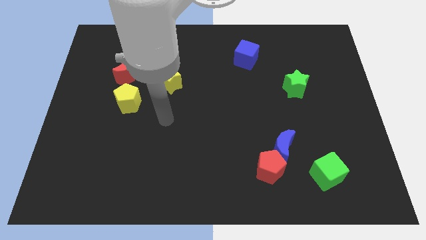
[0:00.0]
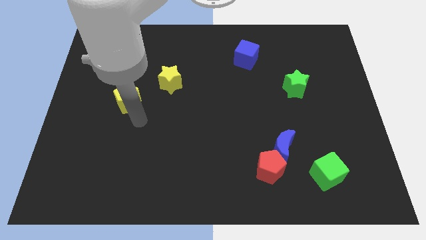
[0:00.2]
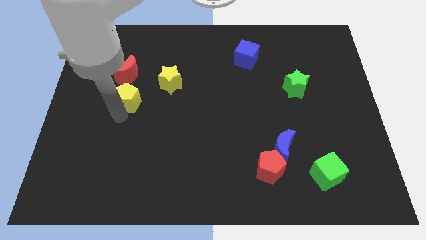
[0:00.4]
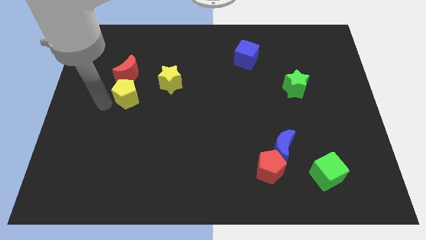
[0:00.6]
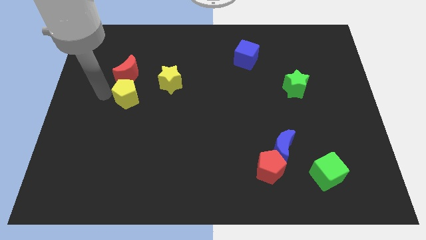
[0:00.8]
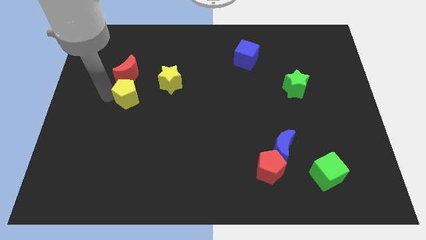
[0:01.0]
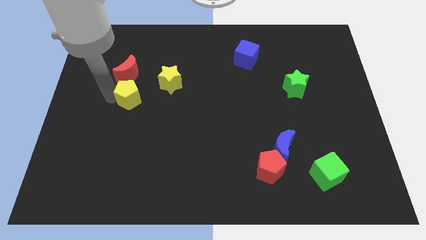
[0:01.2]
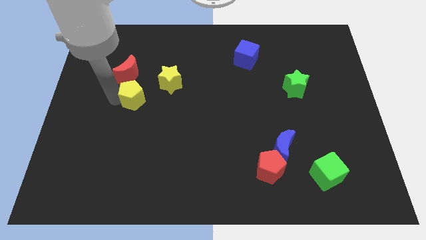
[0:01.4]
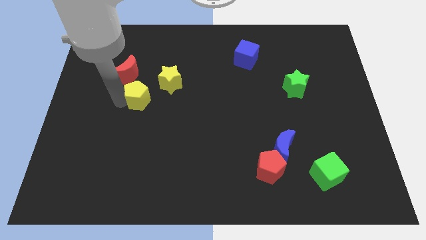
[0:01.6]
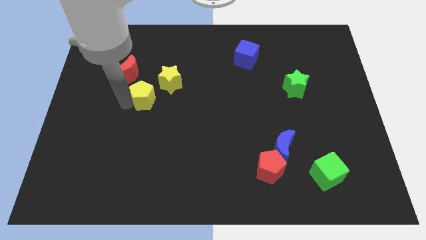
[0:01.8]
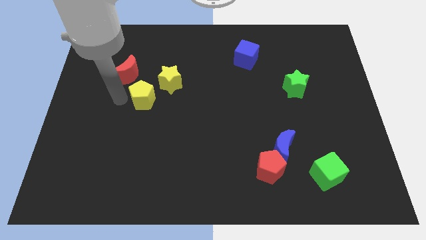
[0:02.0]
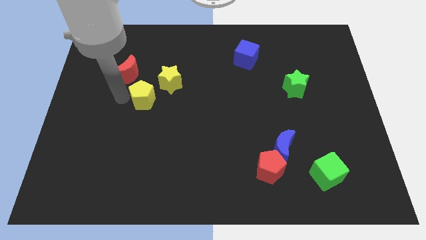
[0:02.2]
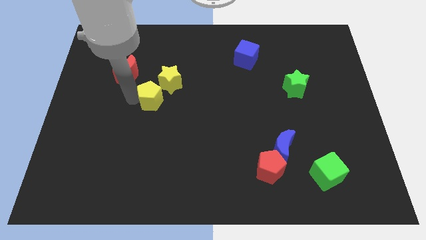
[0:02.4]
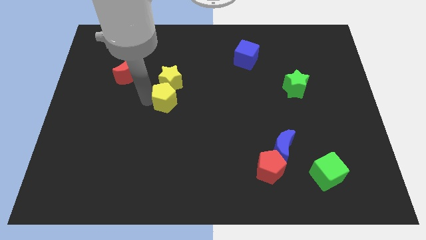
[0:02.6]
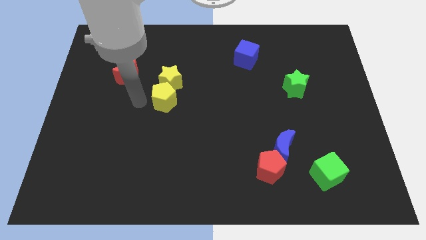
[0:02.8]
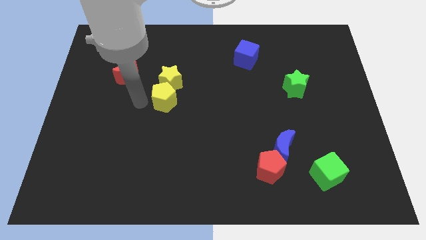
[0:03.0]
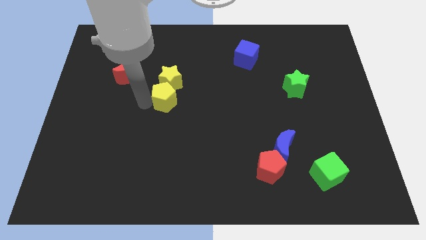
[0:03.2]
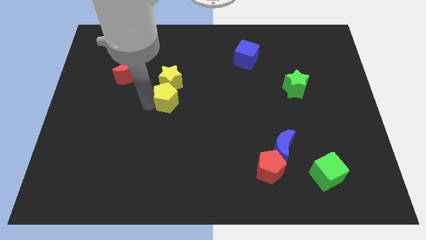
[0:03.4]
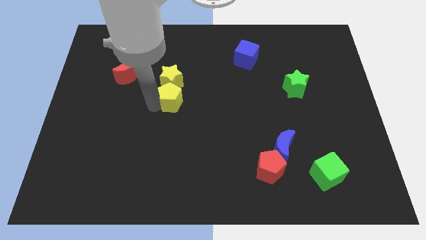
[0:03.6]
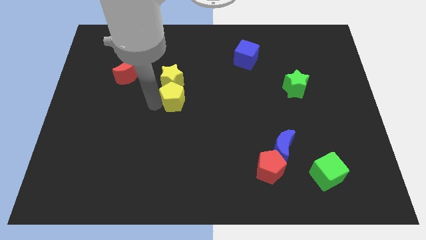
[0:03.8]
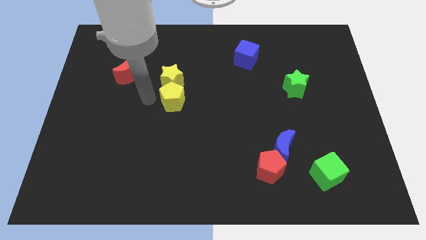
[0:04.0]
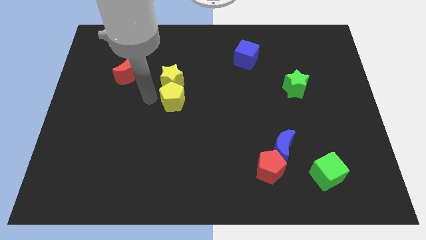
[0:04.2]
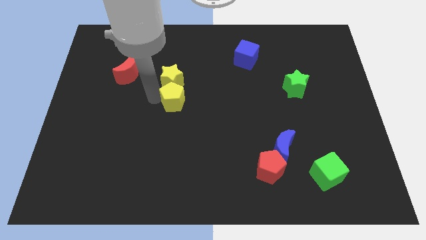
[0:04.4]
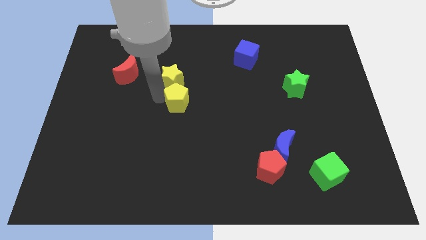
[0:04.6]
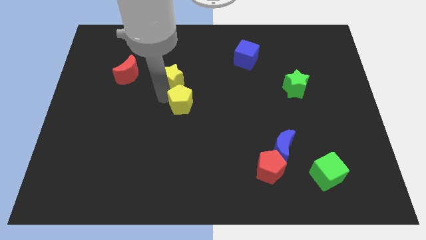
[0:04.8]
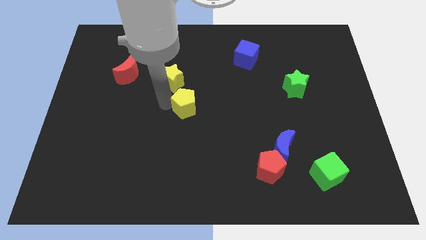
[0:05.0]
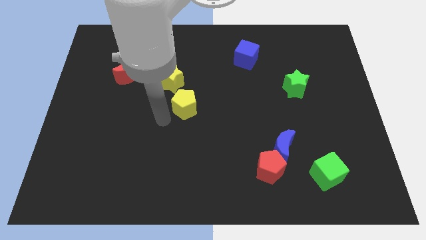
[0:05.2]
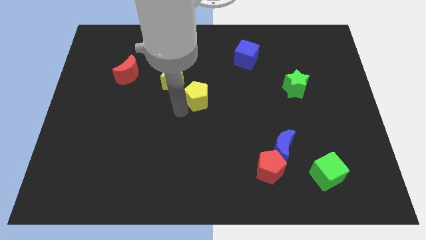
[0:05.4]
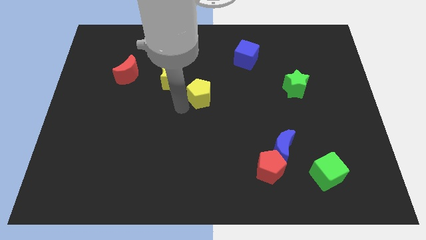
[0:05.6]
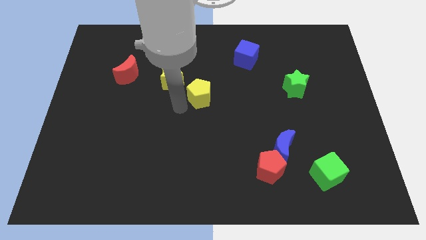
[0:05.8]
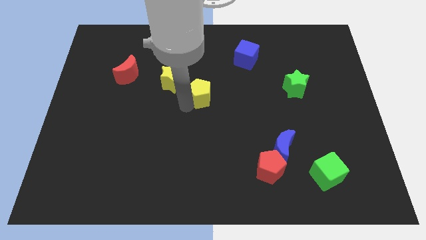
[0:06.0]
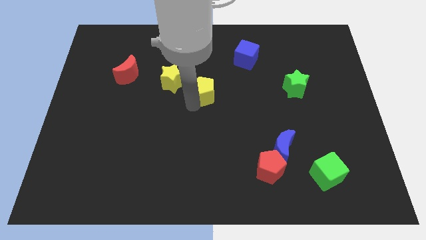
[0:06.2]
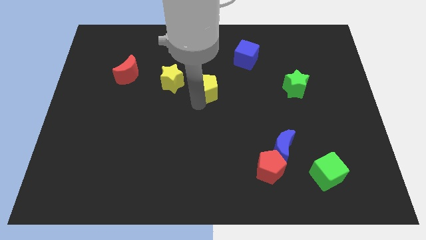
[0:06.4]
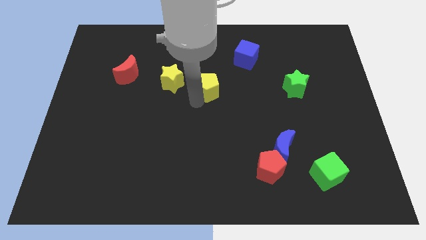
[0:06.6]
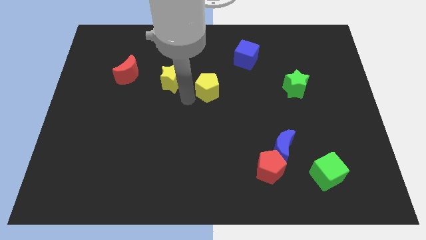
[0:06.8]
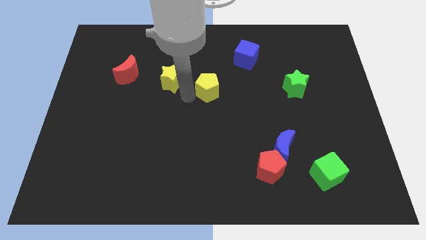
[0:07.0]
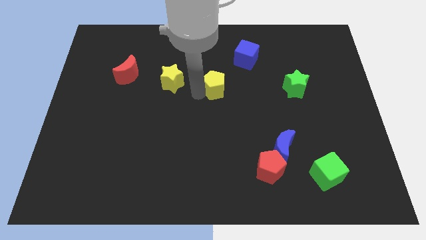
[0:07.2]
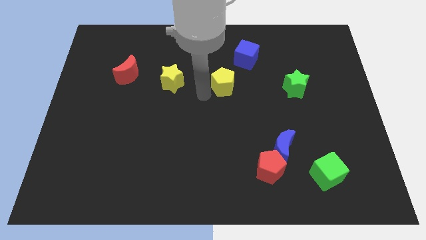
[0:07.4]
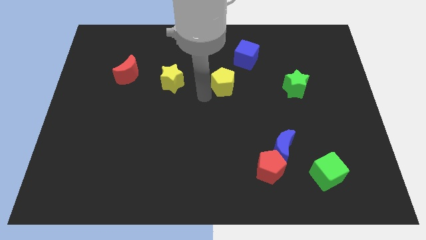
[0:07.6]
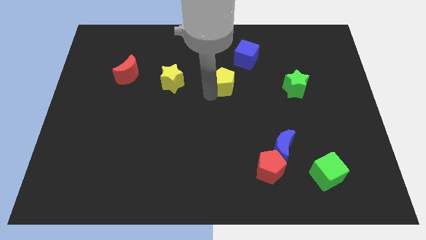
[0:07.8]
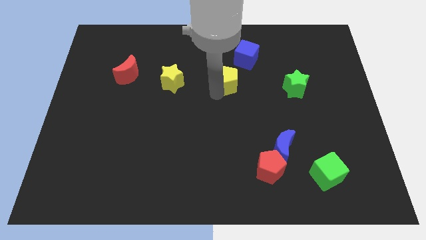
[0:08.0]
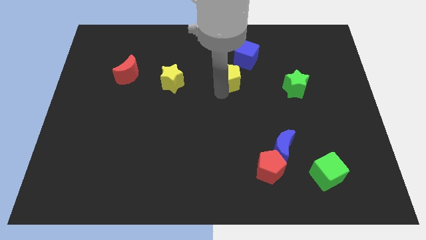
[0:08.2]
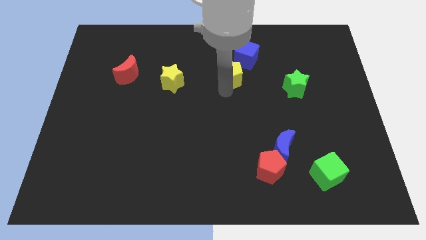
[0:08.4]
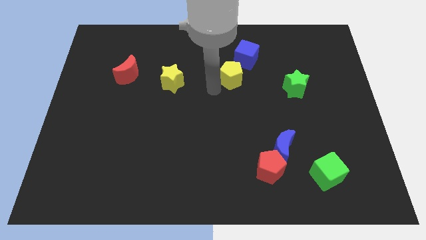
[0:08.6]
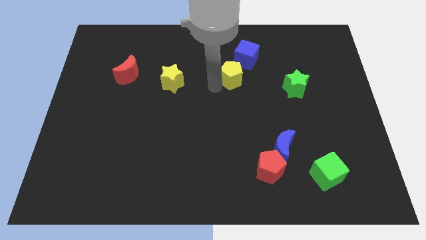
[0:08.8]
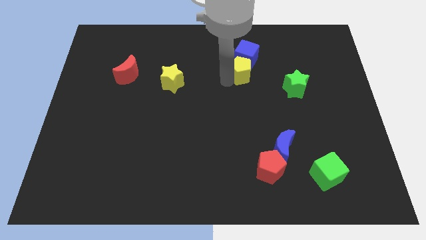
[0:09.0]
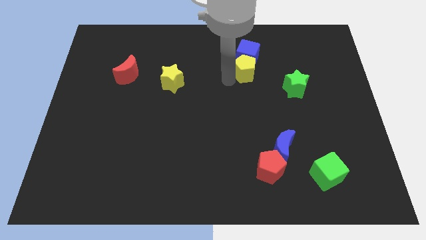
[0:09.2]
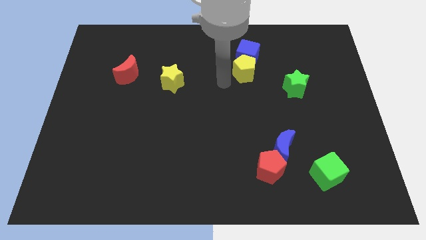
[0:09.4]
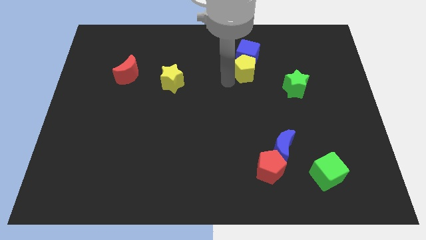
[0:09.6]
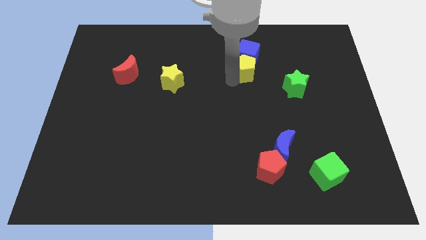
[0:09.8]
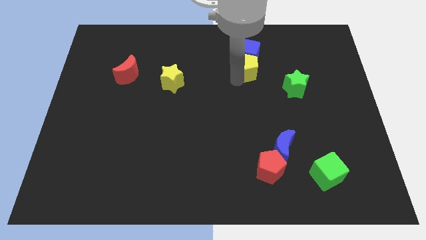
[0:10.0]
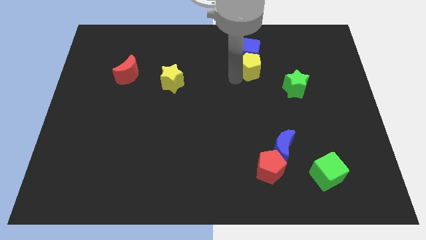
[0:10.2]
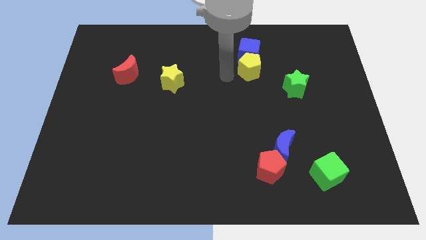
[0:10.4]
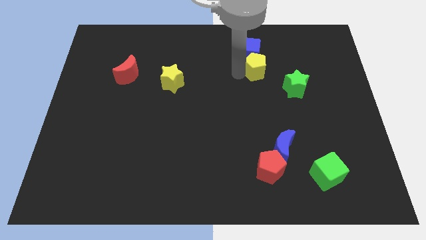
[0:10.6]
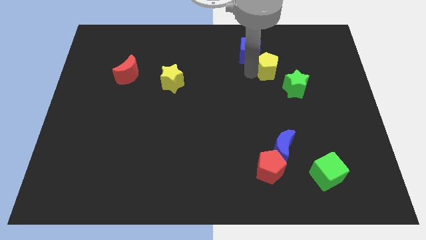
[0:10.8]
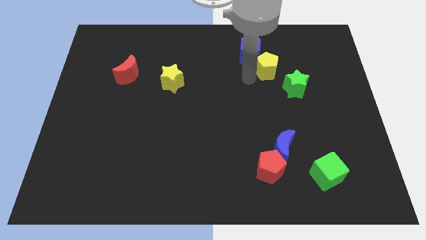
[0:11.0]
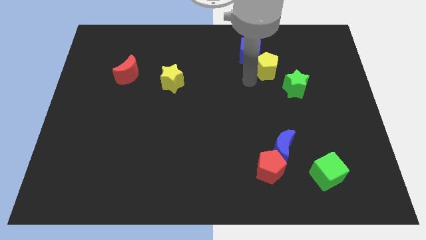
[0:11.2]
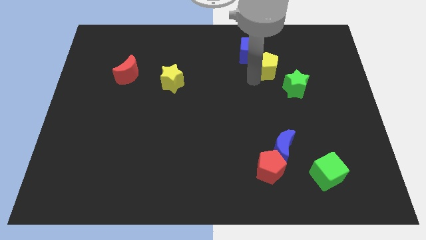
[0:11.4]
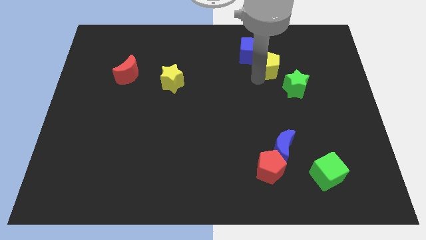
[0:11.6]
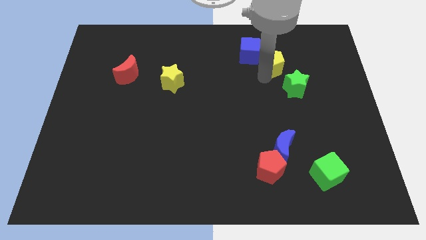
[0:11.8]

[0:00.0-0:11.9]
push the yellow pentagon right of the blue cube

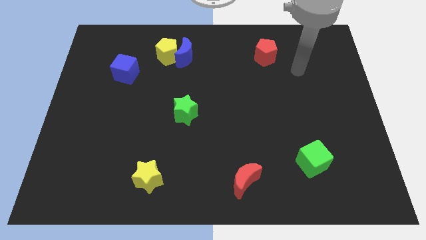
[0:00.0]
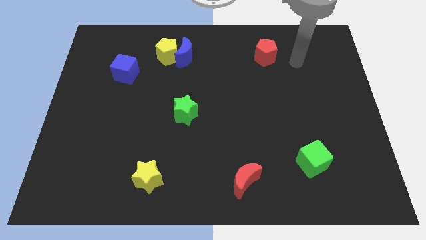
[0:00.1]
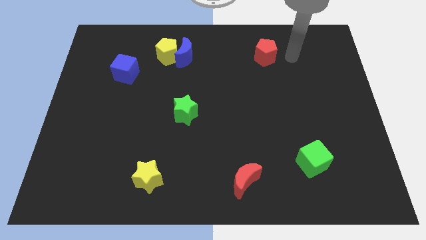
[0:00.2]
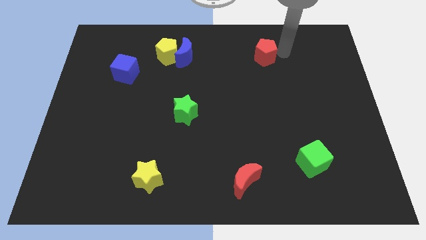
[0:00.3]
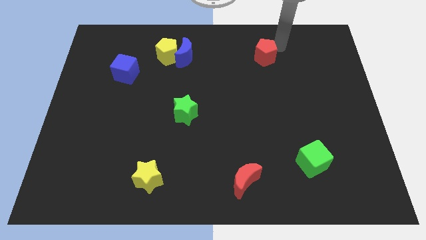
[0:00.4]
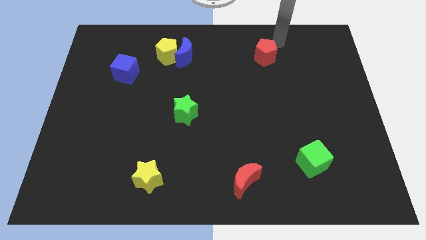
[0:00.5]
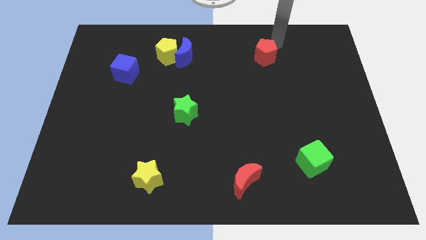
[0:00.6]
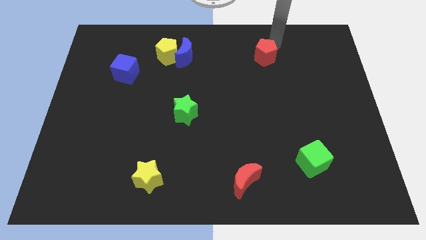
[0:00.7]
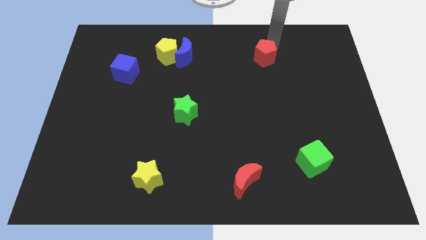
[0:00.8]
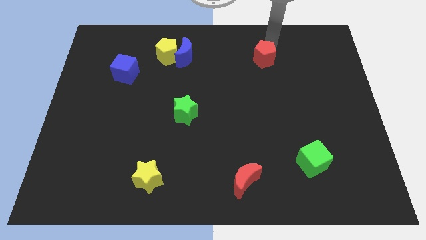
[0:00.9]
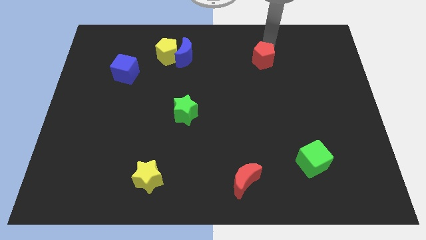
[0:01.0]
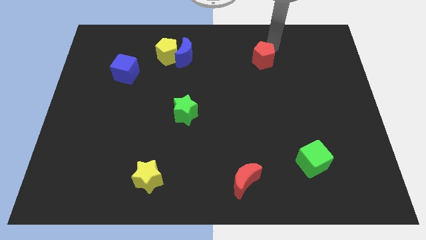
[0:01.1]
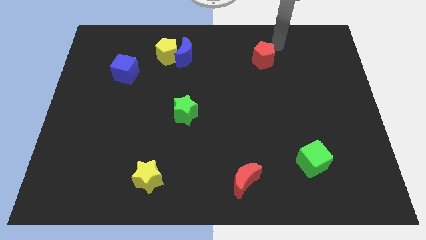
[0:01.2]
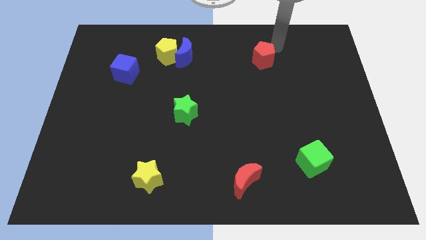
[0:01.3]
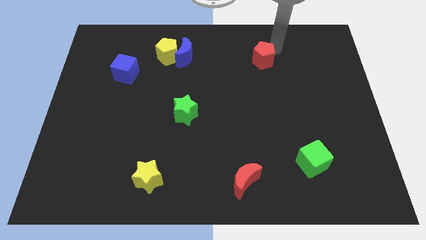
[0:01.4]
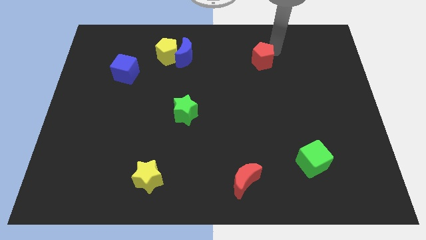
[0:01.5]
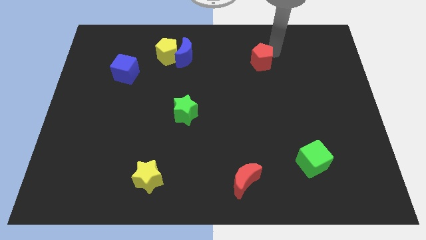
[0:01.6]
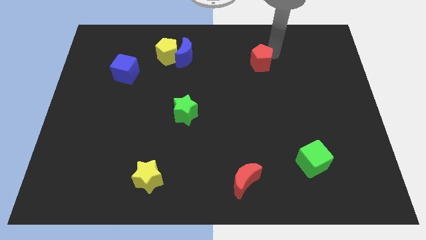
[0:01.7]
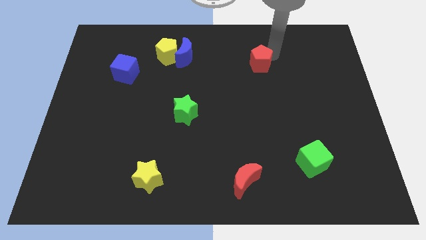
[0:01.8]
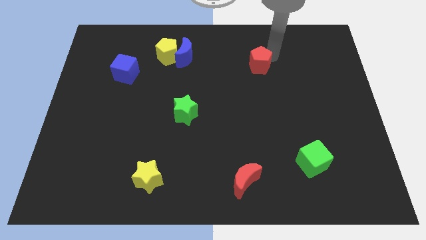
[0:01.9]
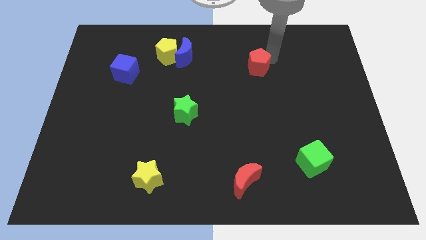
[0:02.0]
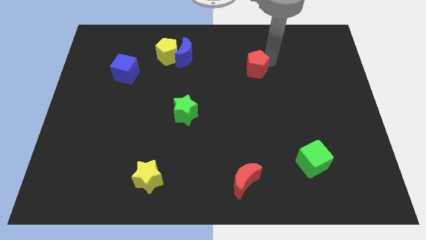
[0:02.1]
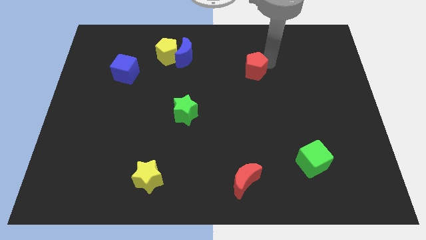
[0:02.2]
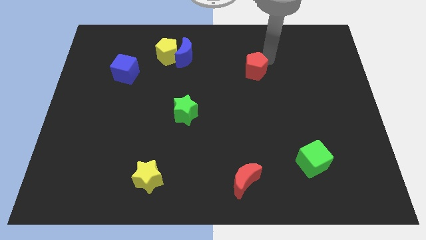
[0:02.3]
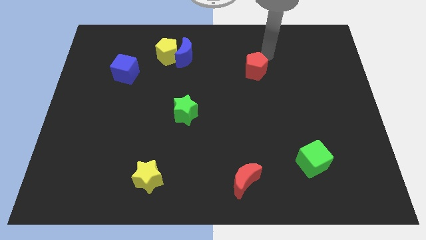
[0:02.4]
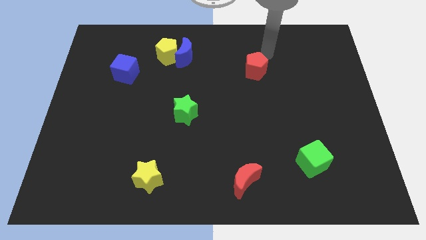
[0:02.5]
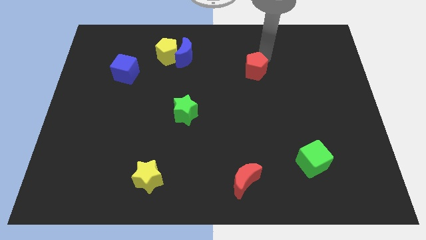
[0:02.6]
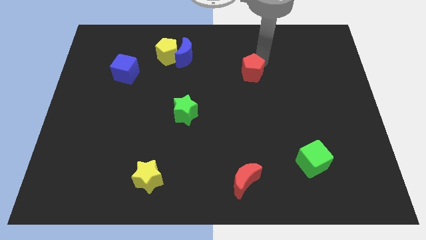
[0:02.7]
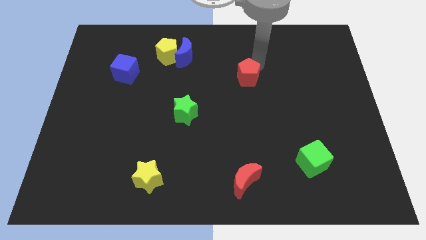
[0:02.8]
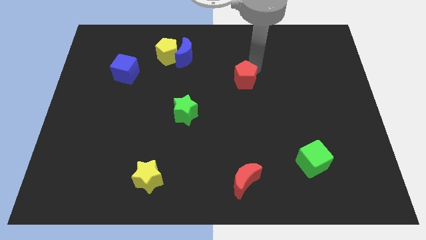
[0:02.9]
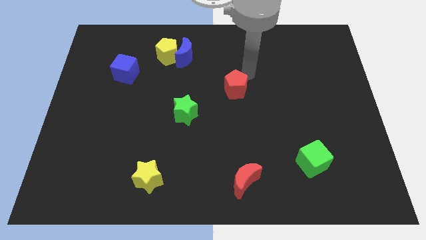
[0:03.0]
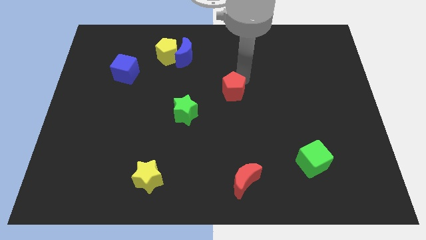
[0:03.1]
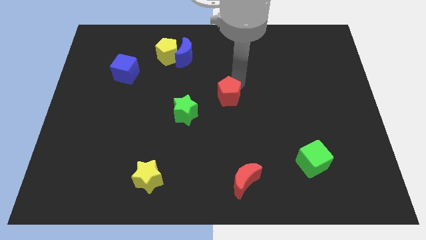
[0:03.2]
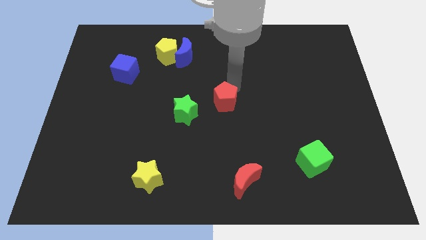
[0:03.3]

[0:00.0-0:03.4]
move the red pentagon to the right of the green star
